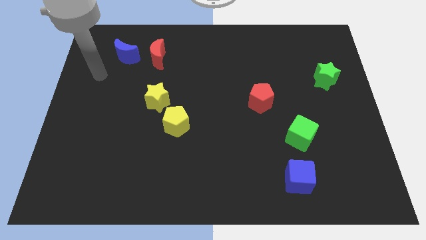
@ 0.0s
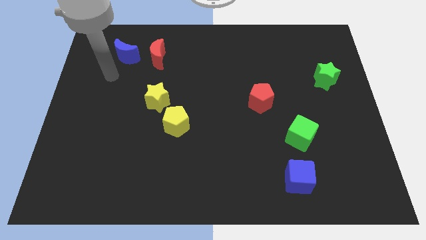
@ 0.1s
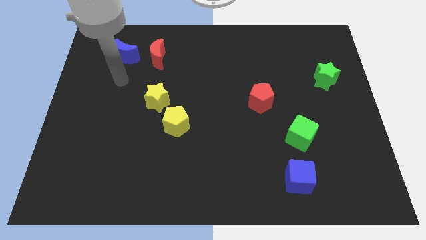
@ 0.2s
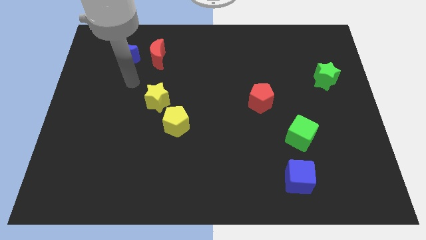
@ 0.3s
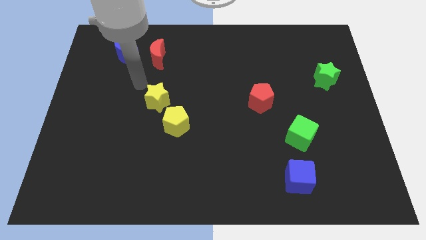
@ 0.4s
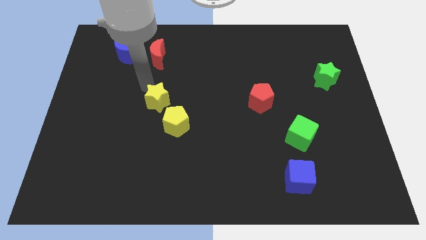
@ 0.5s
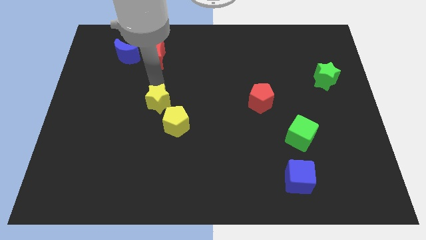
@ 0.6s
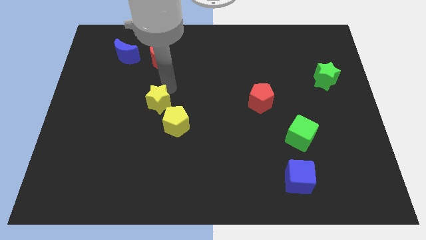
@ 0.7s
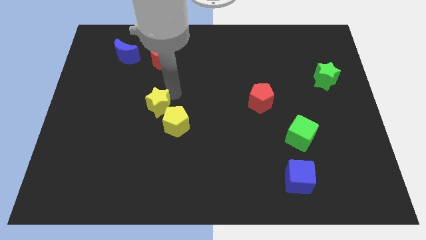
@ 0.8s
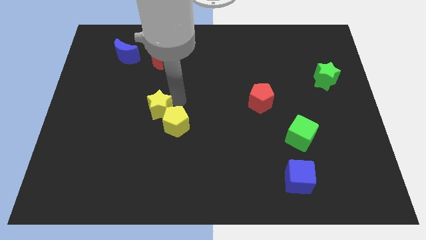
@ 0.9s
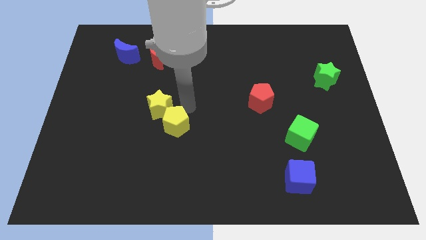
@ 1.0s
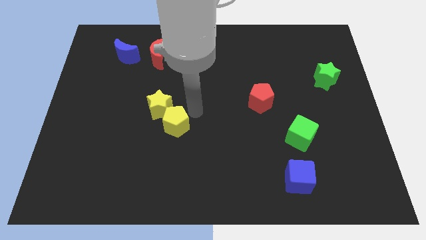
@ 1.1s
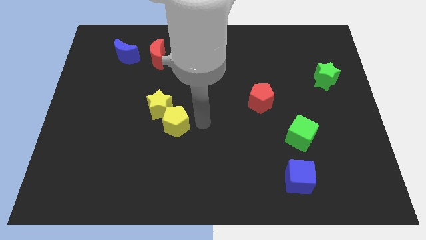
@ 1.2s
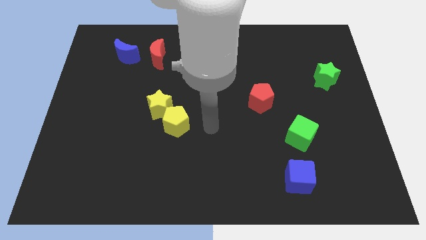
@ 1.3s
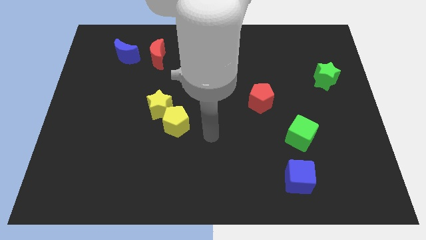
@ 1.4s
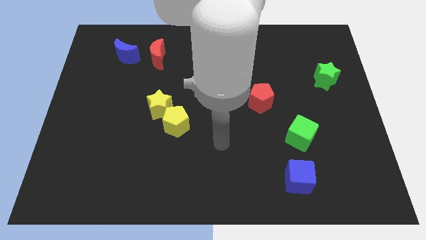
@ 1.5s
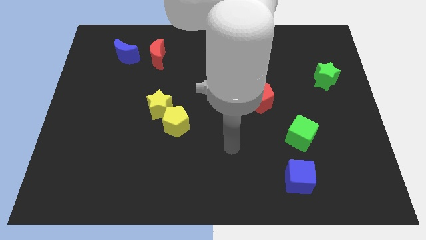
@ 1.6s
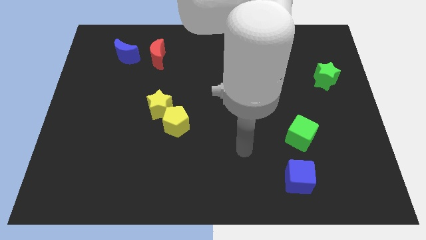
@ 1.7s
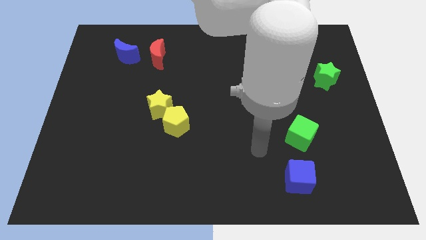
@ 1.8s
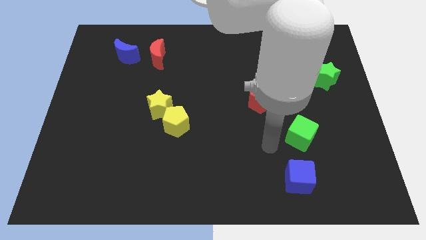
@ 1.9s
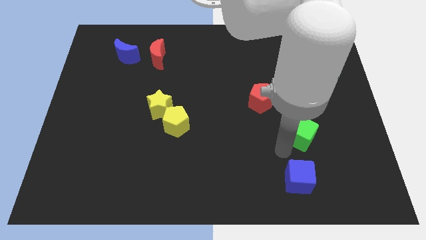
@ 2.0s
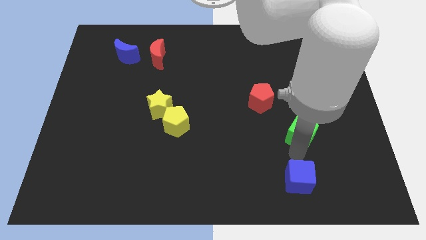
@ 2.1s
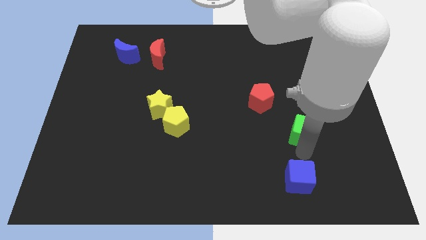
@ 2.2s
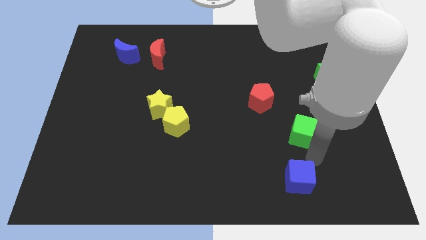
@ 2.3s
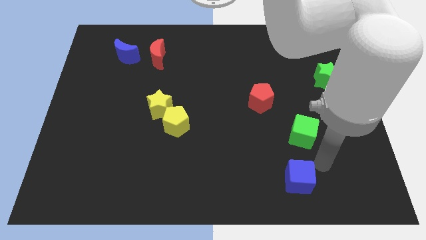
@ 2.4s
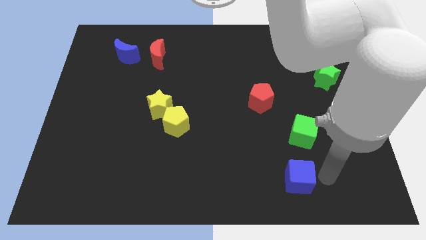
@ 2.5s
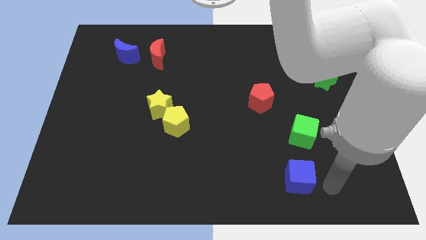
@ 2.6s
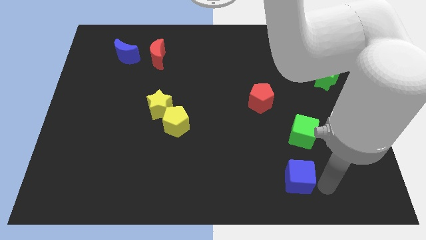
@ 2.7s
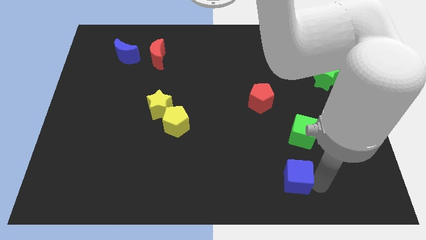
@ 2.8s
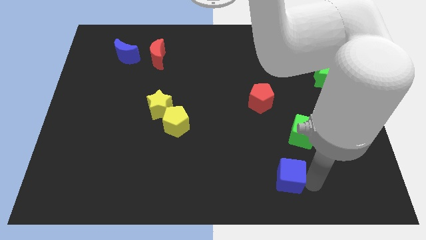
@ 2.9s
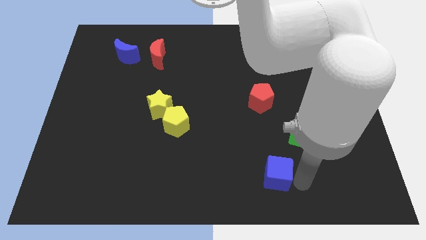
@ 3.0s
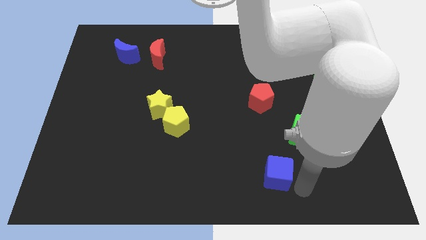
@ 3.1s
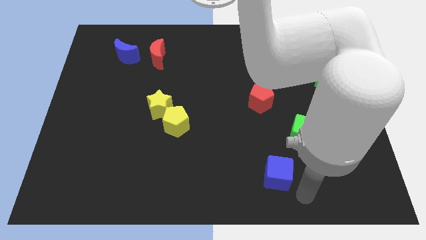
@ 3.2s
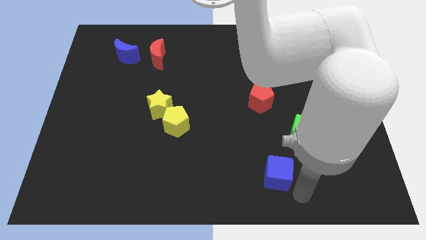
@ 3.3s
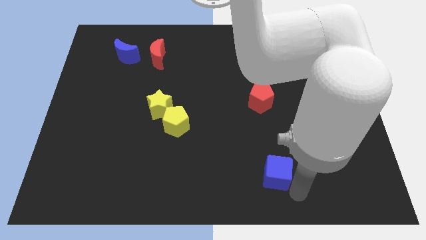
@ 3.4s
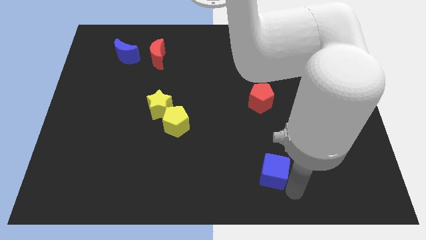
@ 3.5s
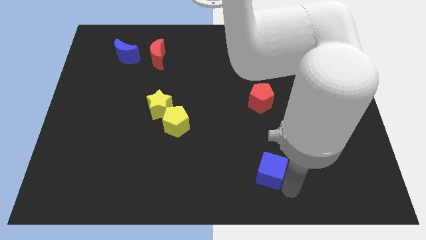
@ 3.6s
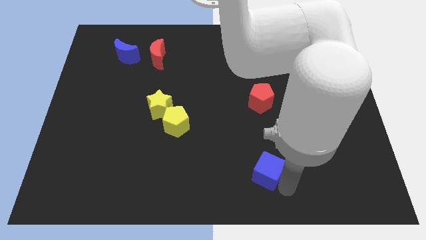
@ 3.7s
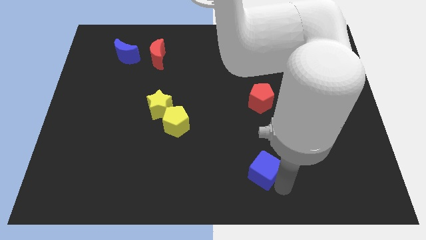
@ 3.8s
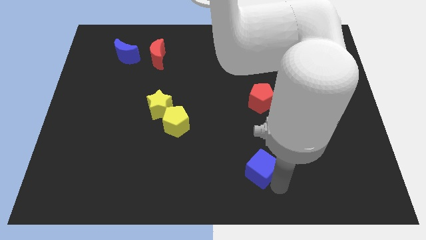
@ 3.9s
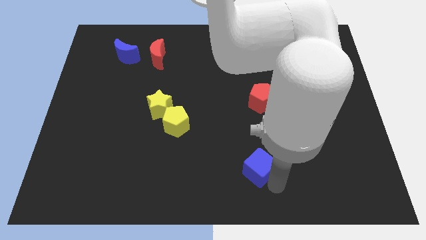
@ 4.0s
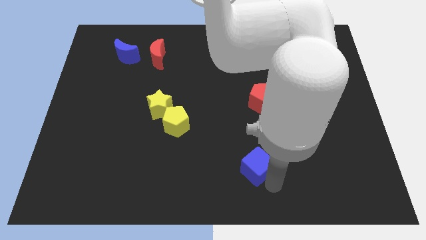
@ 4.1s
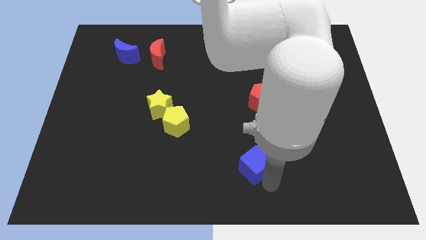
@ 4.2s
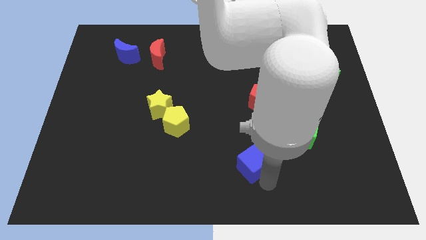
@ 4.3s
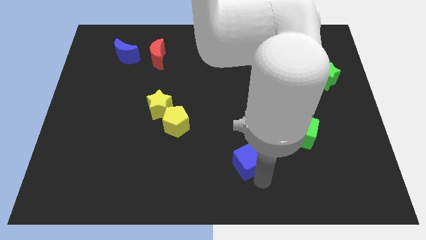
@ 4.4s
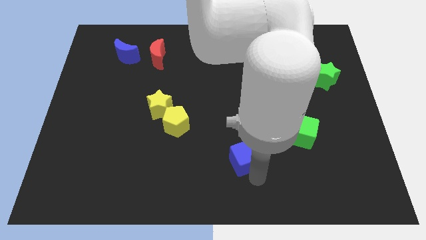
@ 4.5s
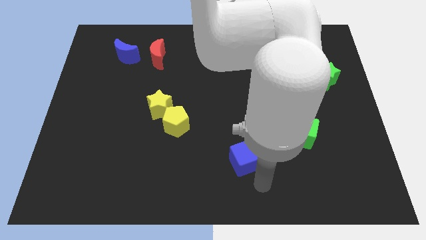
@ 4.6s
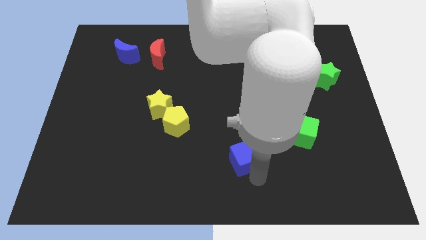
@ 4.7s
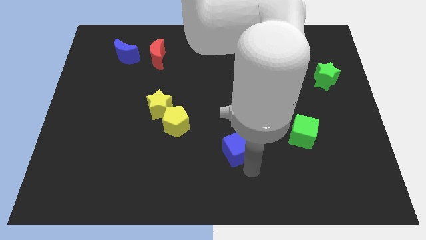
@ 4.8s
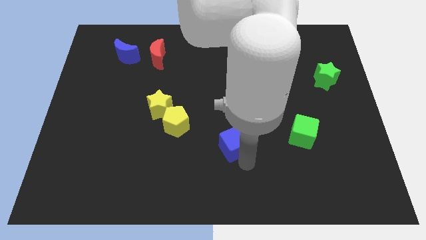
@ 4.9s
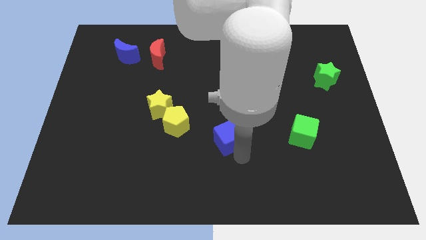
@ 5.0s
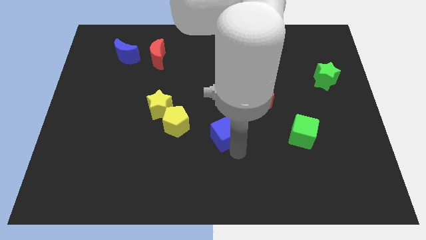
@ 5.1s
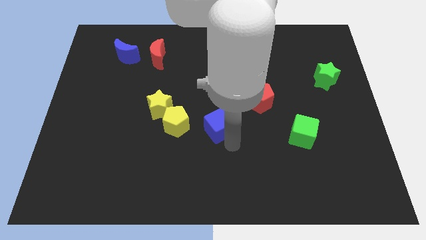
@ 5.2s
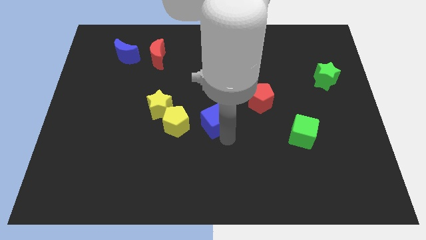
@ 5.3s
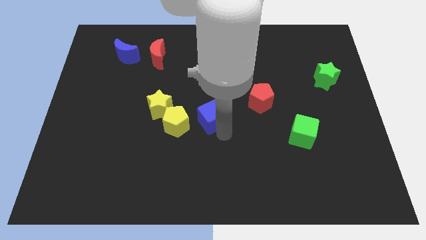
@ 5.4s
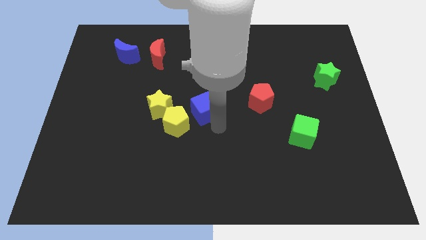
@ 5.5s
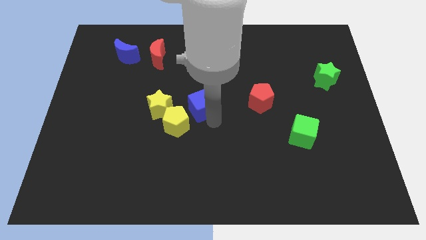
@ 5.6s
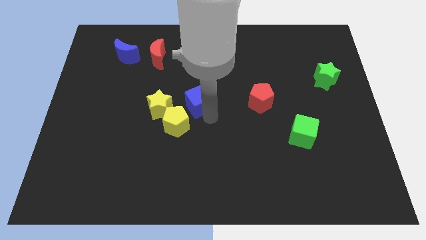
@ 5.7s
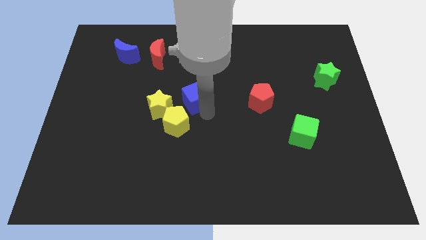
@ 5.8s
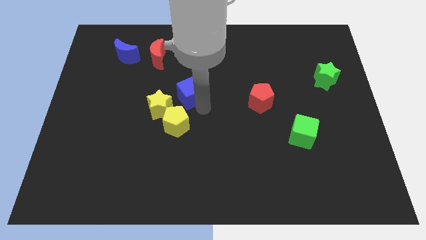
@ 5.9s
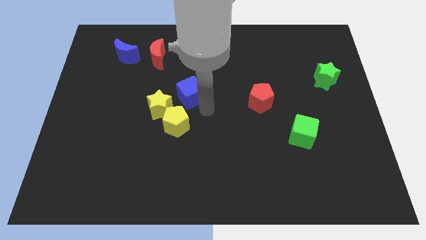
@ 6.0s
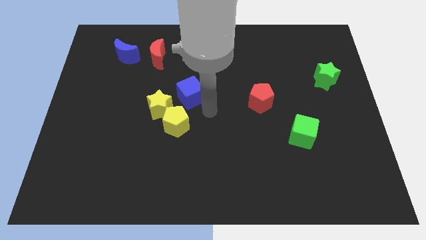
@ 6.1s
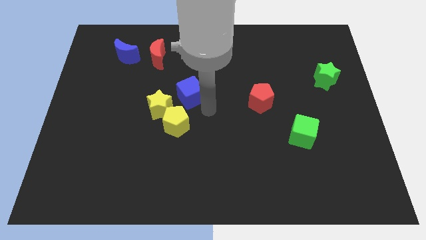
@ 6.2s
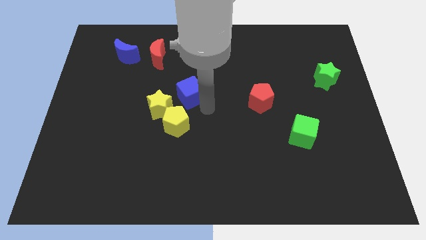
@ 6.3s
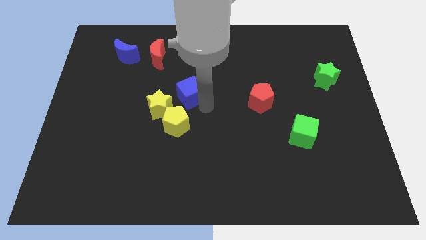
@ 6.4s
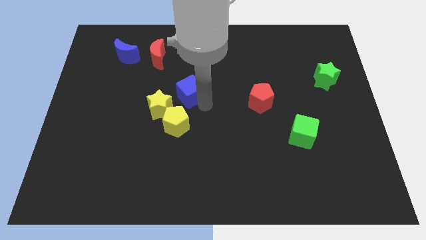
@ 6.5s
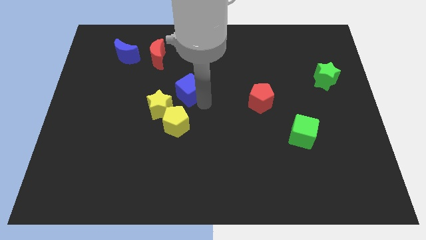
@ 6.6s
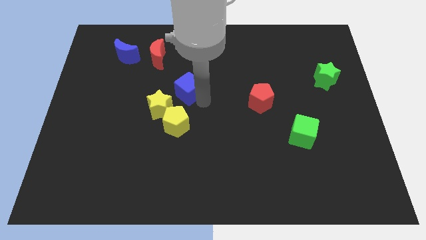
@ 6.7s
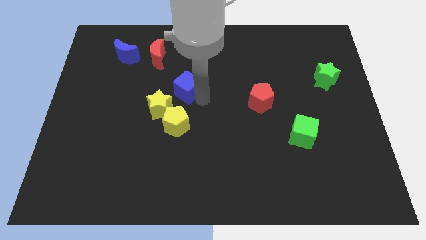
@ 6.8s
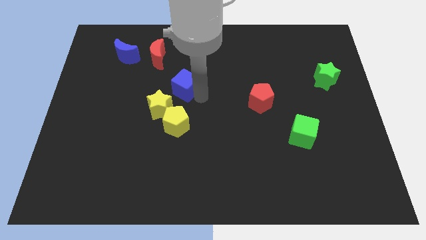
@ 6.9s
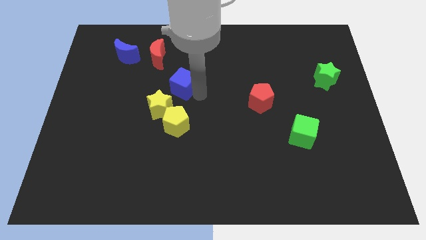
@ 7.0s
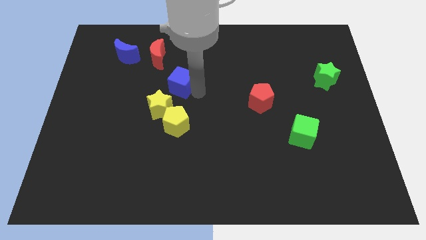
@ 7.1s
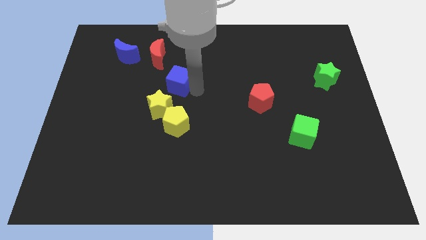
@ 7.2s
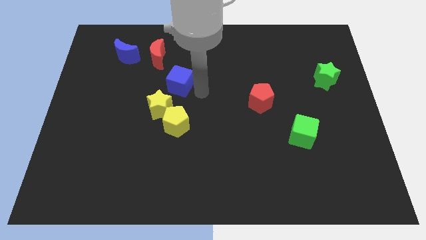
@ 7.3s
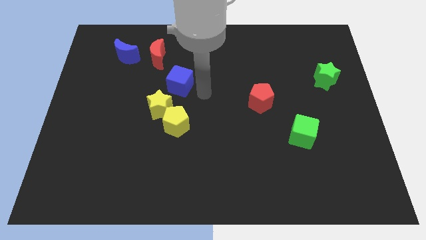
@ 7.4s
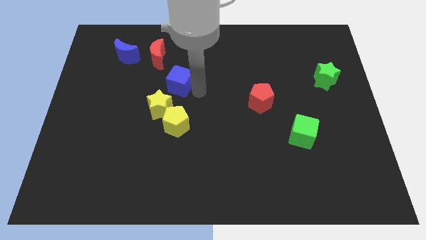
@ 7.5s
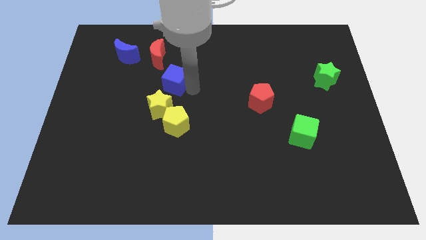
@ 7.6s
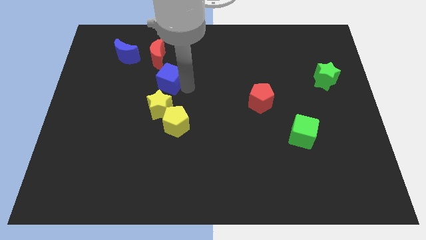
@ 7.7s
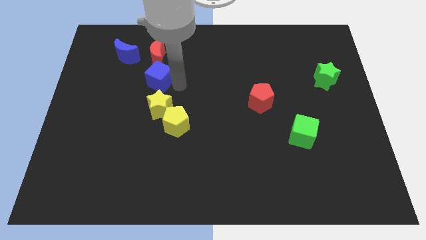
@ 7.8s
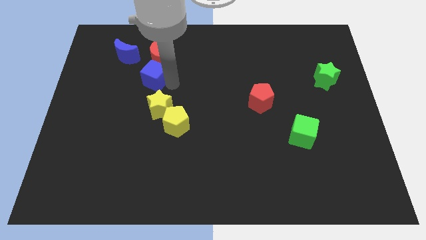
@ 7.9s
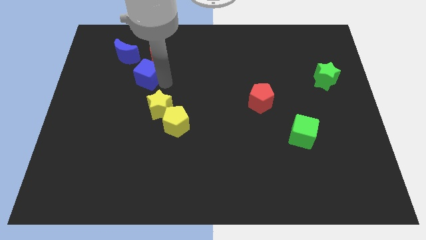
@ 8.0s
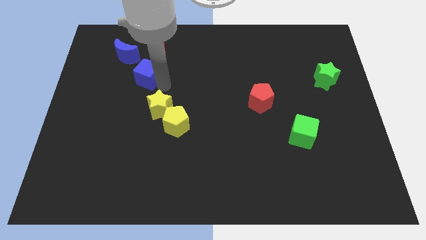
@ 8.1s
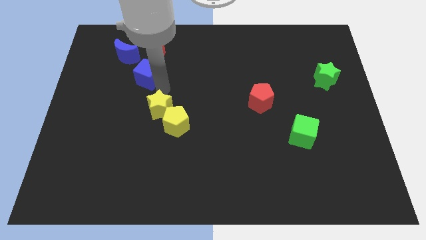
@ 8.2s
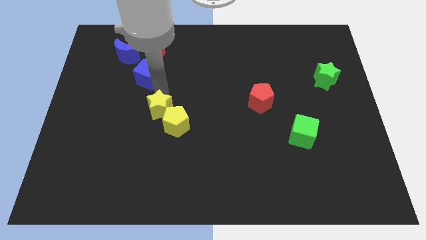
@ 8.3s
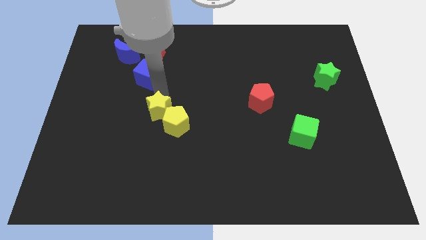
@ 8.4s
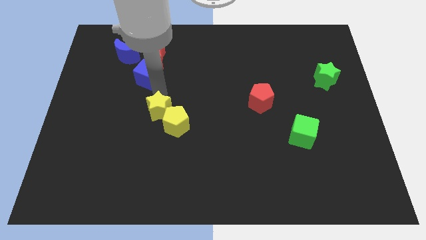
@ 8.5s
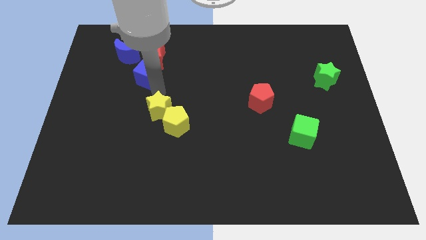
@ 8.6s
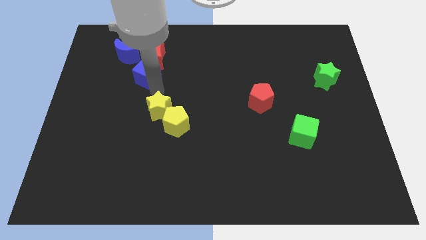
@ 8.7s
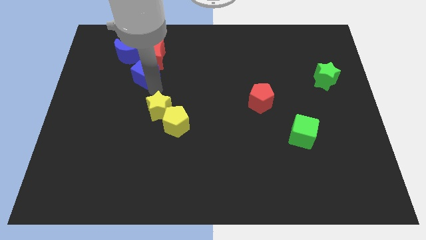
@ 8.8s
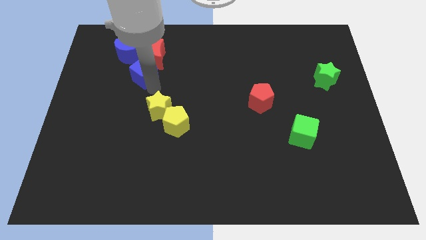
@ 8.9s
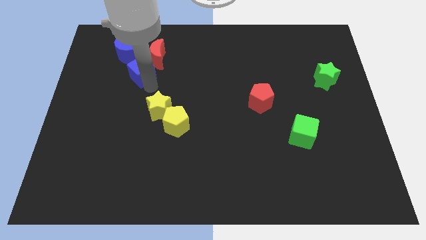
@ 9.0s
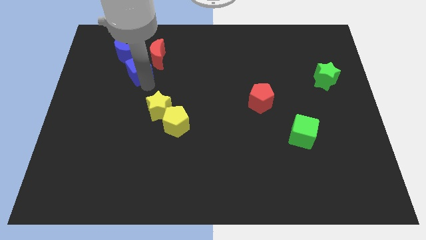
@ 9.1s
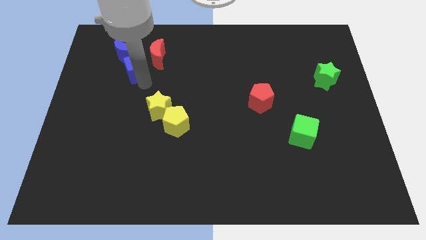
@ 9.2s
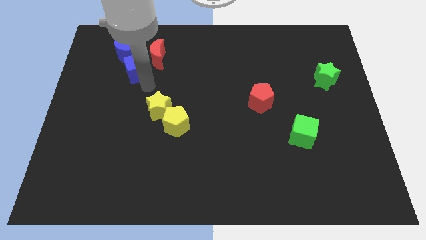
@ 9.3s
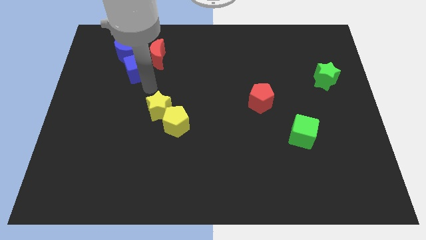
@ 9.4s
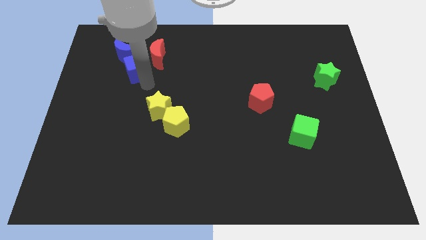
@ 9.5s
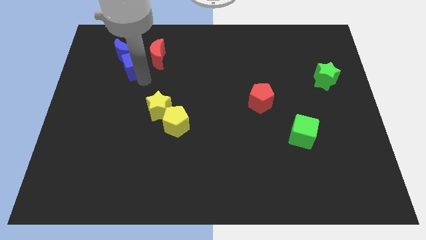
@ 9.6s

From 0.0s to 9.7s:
slide the blue cube next to the blue moon
